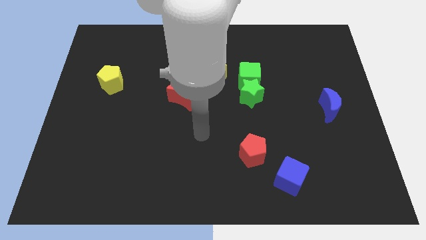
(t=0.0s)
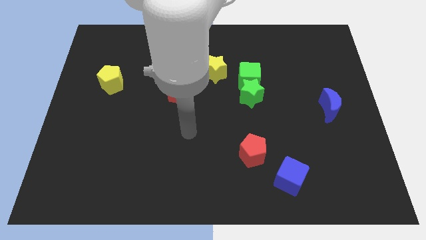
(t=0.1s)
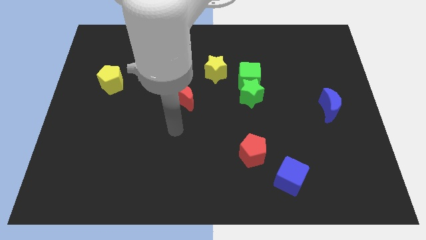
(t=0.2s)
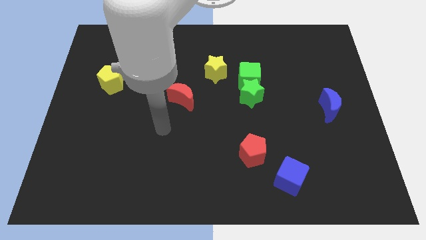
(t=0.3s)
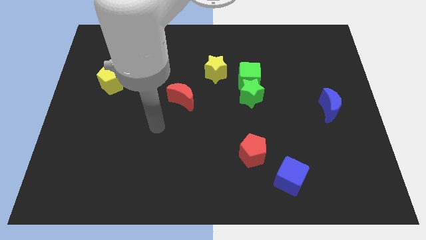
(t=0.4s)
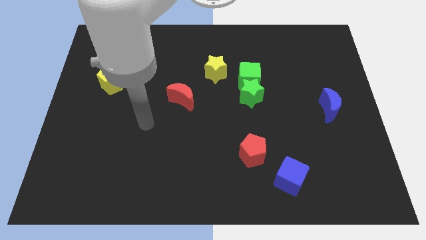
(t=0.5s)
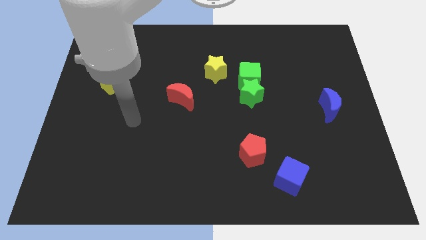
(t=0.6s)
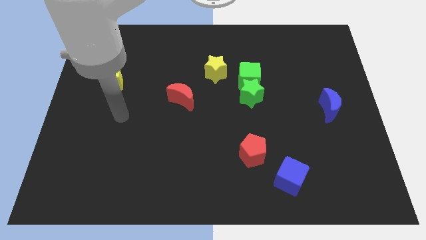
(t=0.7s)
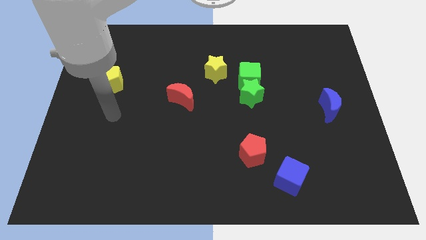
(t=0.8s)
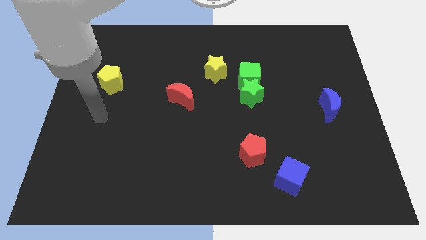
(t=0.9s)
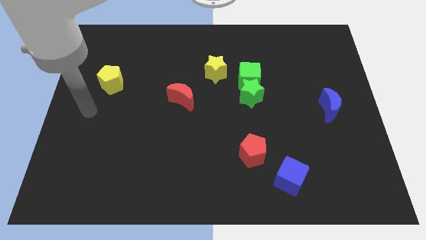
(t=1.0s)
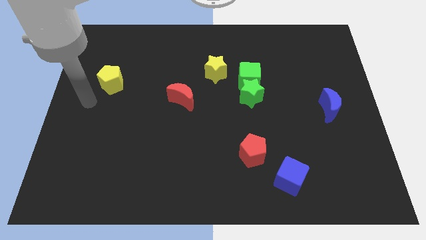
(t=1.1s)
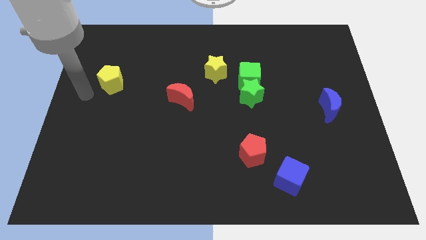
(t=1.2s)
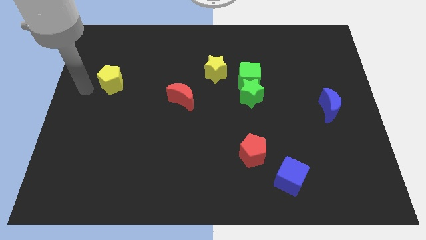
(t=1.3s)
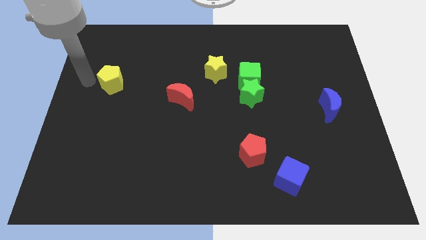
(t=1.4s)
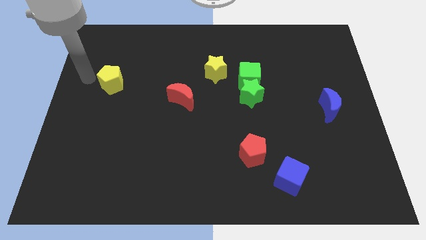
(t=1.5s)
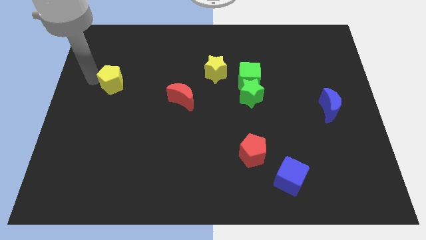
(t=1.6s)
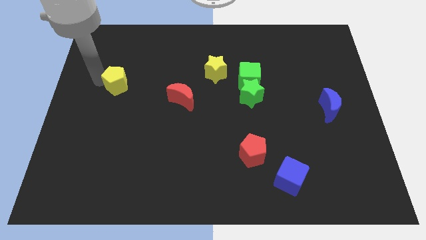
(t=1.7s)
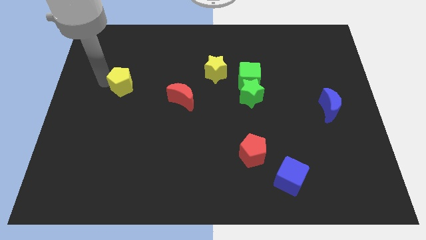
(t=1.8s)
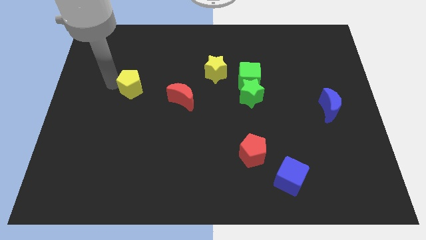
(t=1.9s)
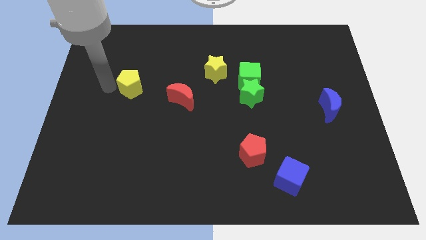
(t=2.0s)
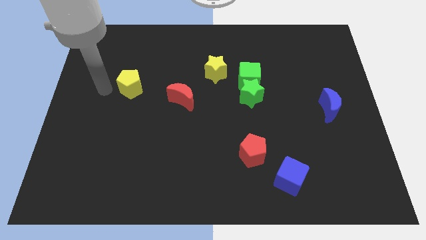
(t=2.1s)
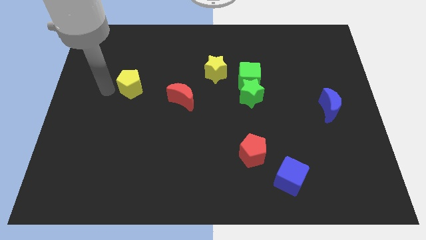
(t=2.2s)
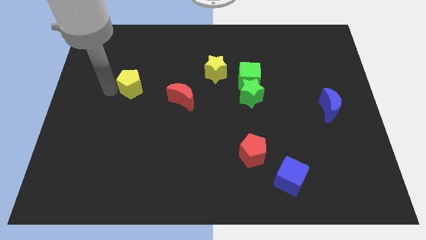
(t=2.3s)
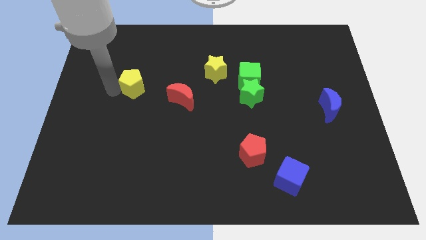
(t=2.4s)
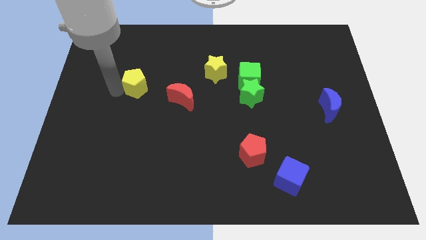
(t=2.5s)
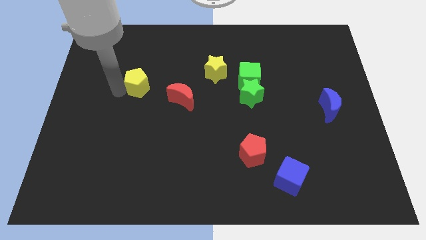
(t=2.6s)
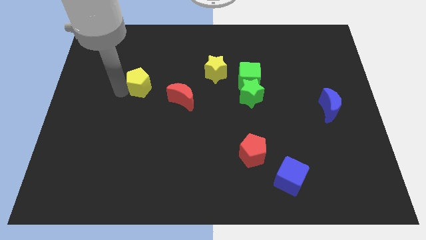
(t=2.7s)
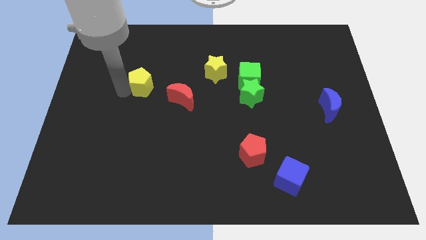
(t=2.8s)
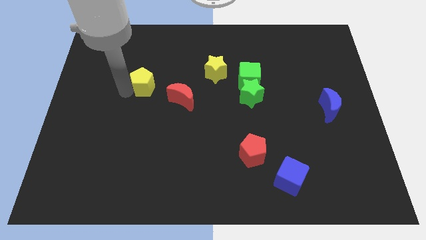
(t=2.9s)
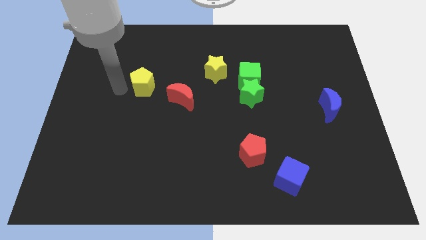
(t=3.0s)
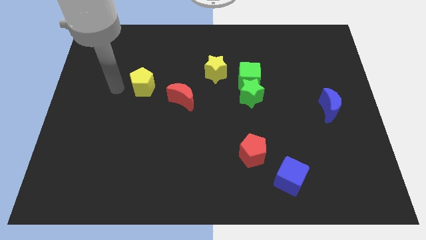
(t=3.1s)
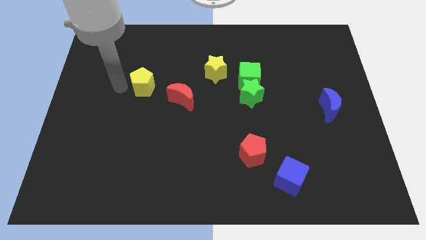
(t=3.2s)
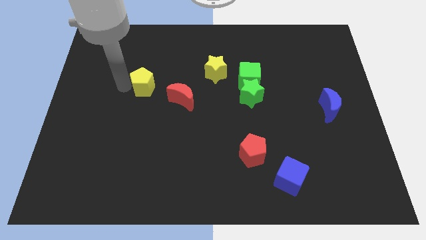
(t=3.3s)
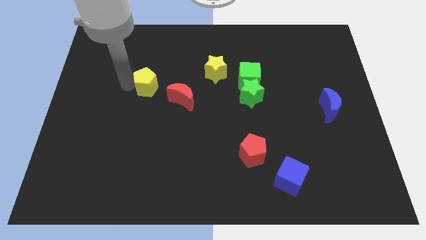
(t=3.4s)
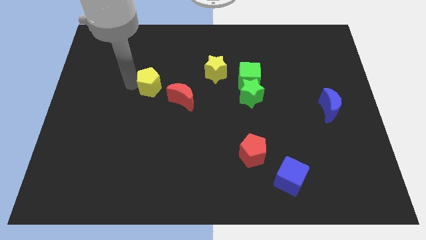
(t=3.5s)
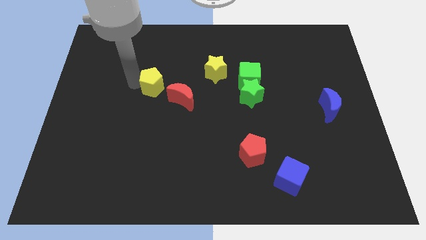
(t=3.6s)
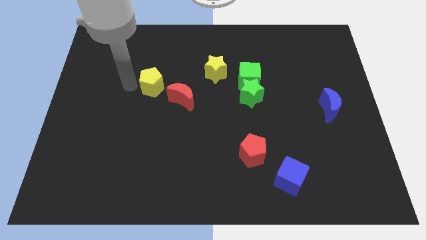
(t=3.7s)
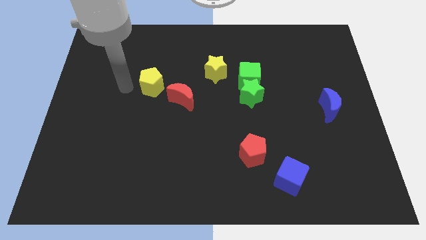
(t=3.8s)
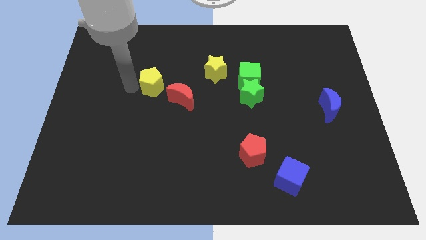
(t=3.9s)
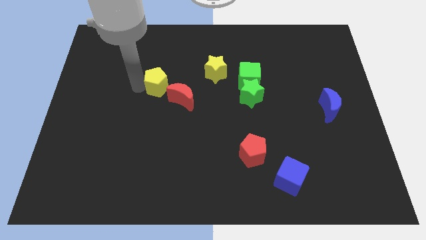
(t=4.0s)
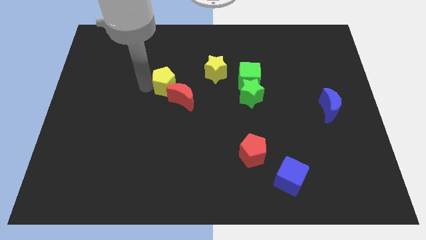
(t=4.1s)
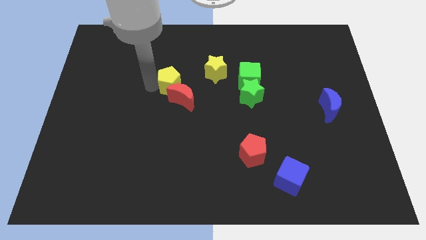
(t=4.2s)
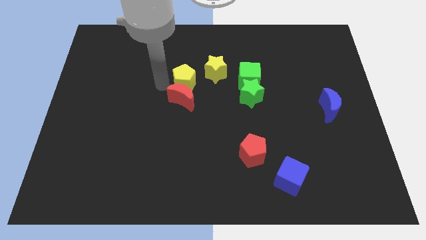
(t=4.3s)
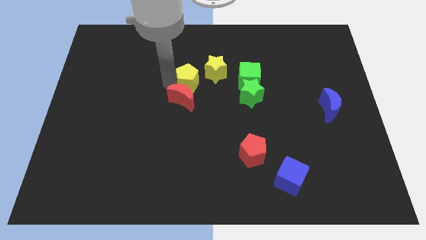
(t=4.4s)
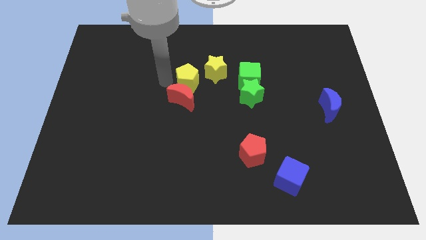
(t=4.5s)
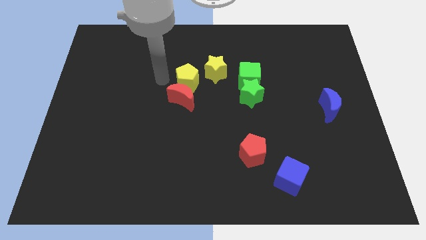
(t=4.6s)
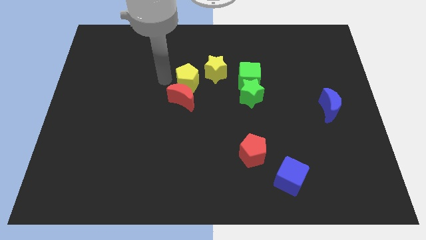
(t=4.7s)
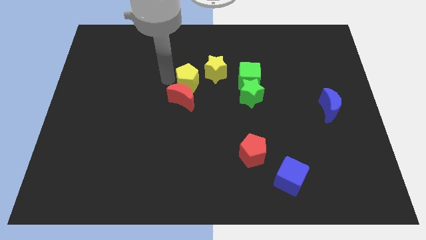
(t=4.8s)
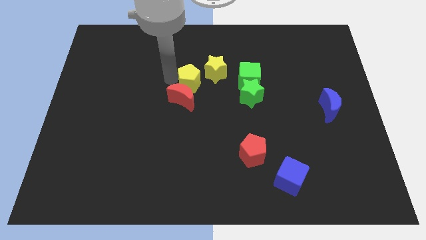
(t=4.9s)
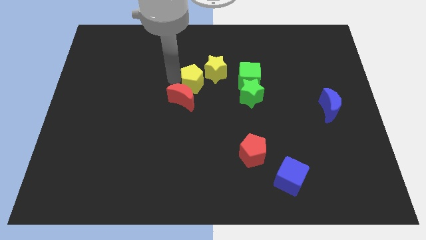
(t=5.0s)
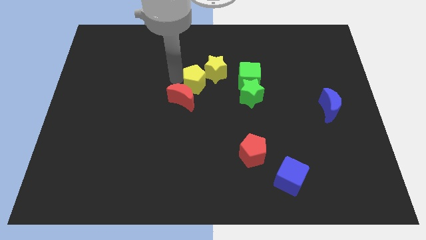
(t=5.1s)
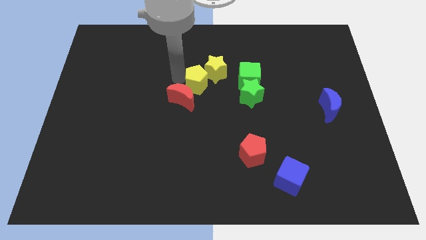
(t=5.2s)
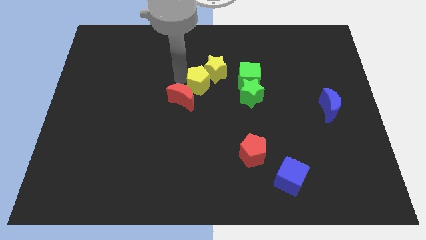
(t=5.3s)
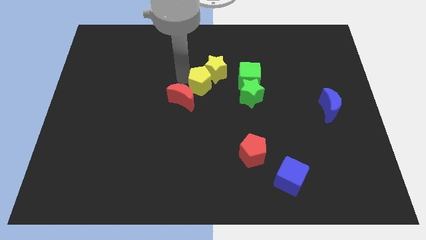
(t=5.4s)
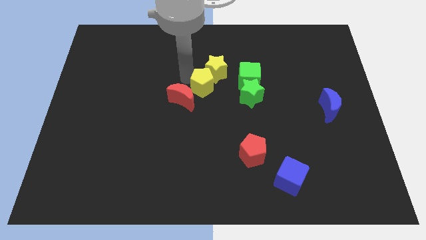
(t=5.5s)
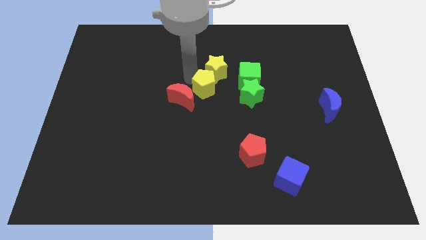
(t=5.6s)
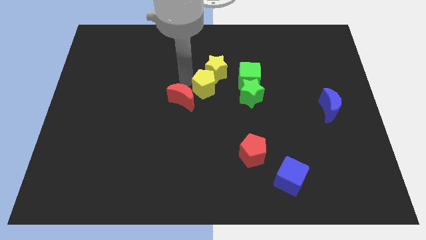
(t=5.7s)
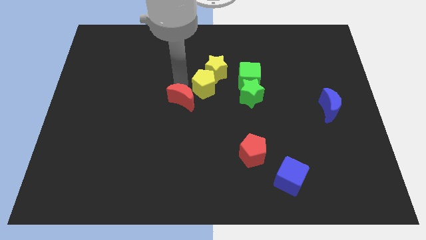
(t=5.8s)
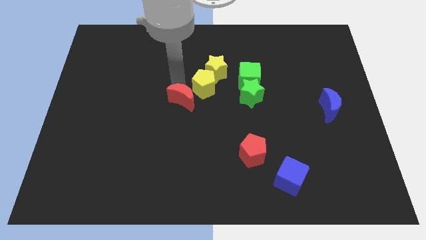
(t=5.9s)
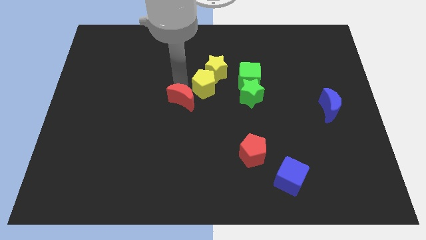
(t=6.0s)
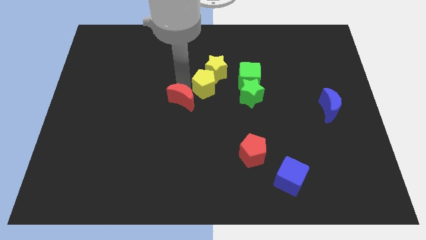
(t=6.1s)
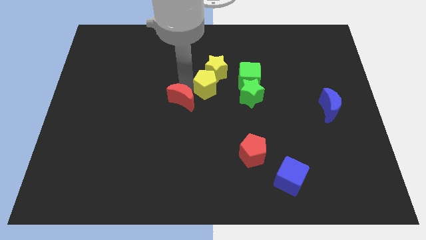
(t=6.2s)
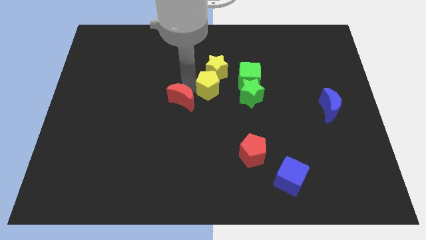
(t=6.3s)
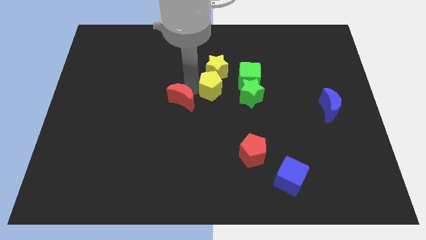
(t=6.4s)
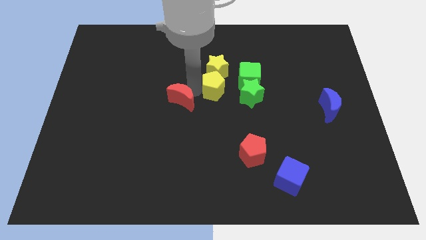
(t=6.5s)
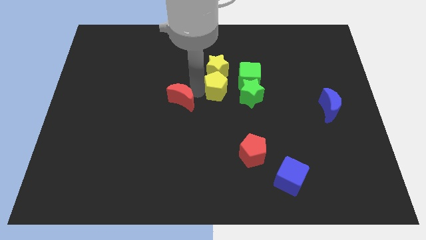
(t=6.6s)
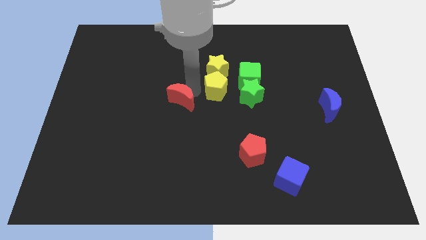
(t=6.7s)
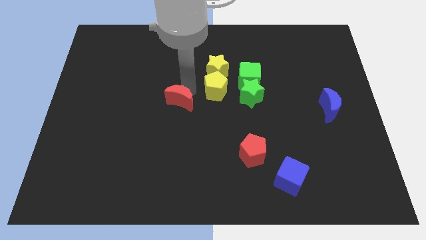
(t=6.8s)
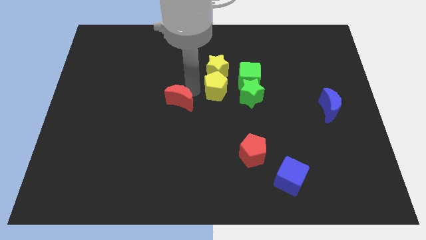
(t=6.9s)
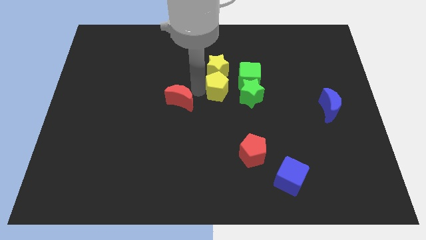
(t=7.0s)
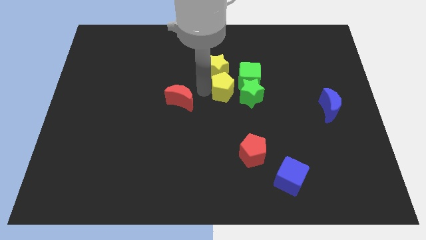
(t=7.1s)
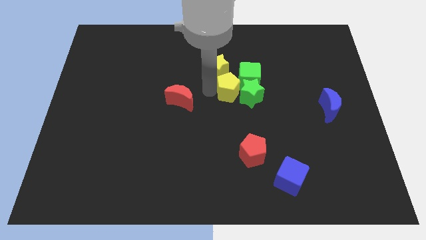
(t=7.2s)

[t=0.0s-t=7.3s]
slide the yellow pentagon to the green star

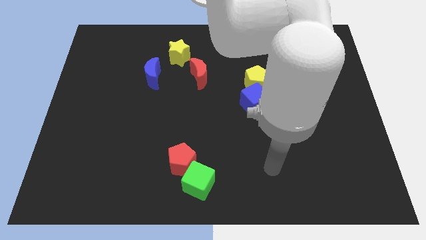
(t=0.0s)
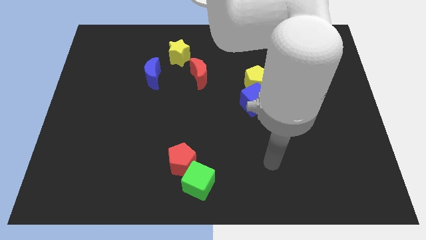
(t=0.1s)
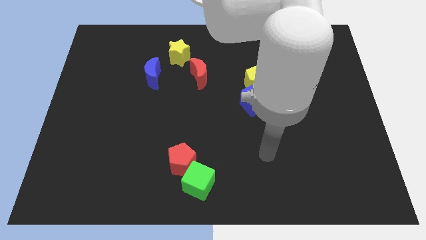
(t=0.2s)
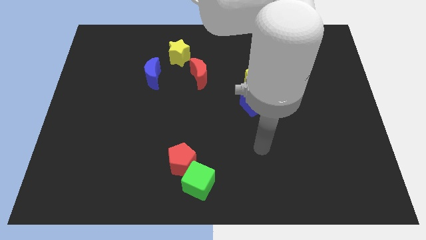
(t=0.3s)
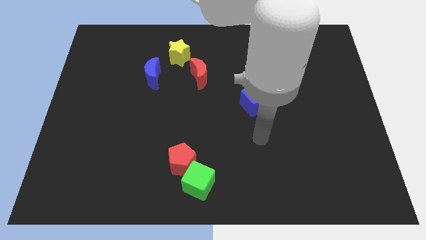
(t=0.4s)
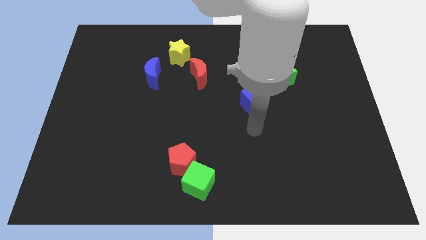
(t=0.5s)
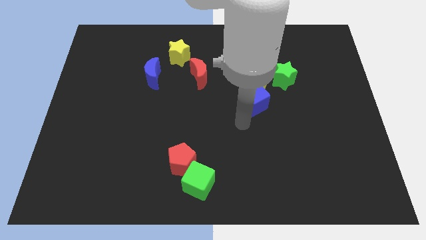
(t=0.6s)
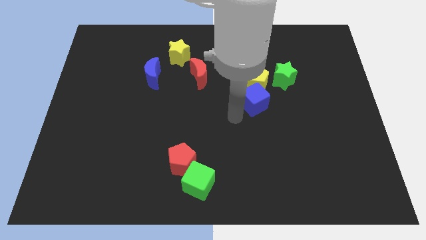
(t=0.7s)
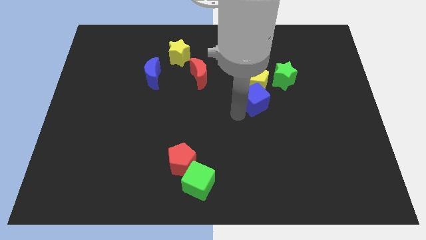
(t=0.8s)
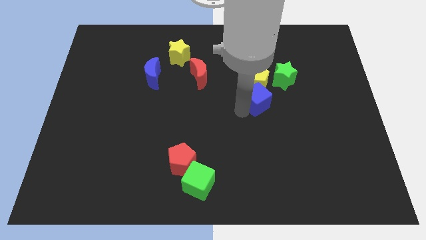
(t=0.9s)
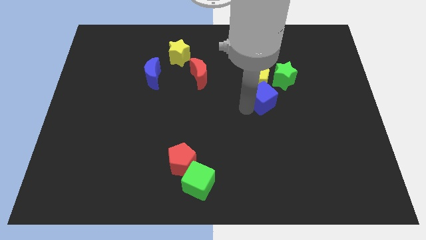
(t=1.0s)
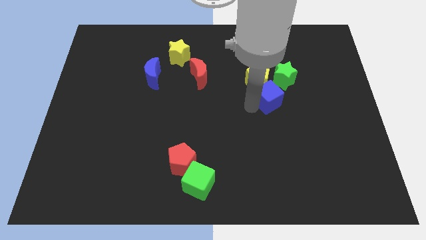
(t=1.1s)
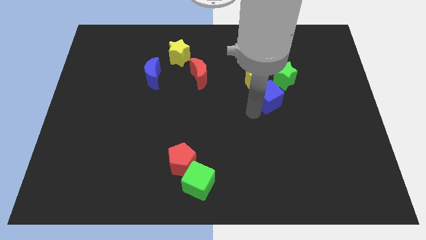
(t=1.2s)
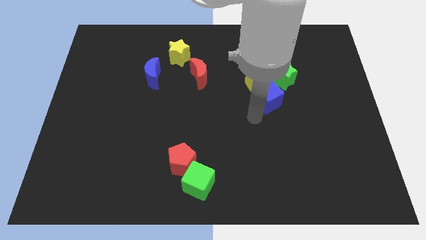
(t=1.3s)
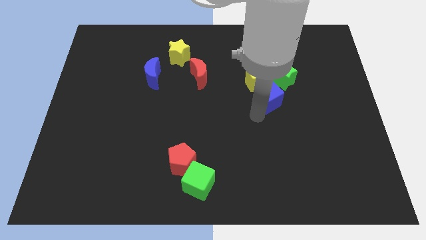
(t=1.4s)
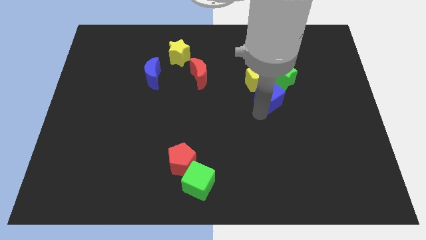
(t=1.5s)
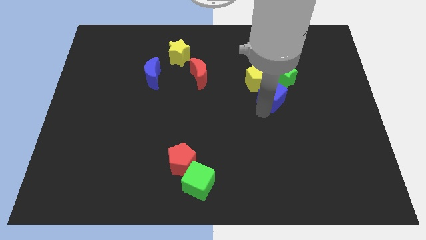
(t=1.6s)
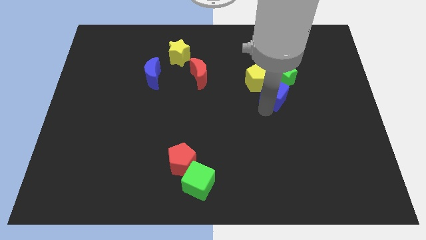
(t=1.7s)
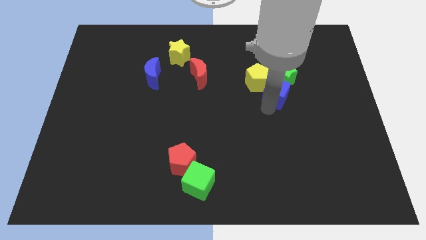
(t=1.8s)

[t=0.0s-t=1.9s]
put the blue cube towards the green star
